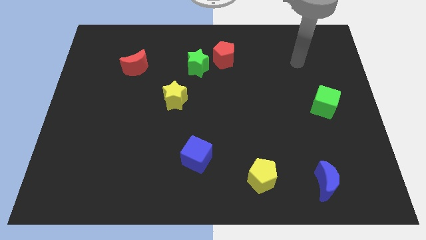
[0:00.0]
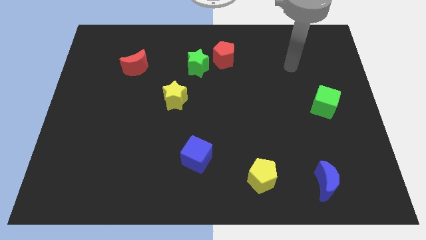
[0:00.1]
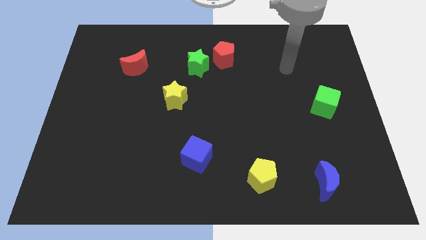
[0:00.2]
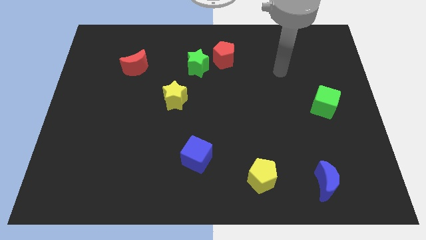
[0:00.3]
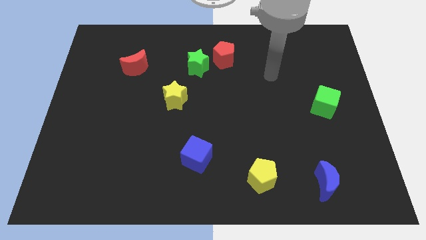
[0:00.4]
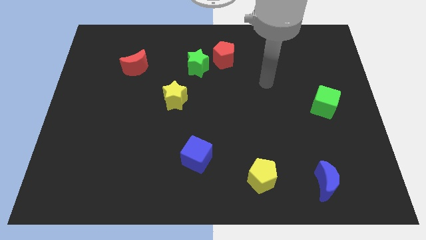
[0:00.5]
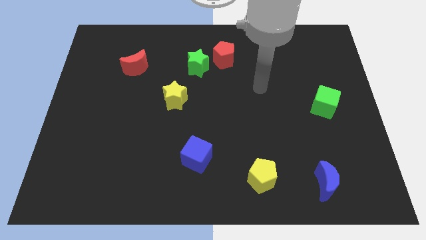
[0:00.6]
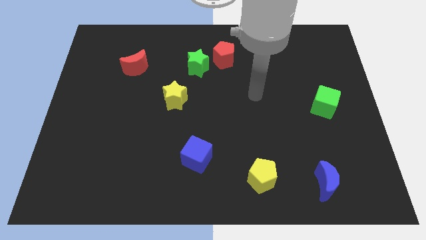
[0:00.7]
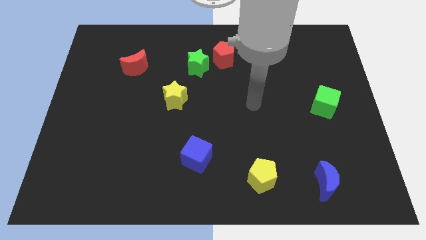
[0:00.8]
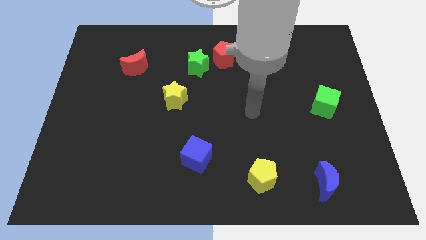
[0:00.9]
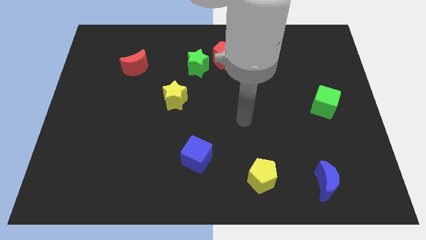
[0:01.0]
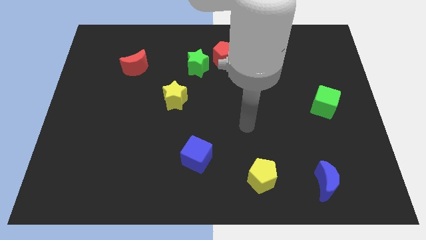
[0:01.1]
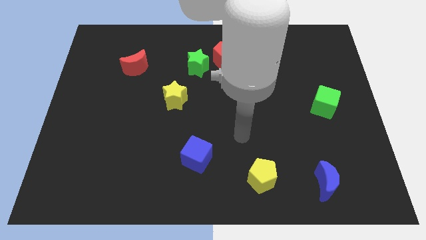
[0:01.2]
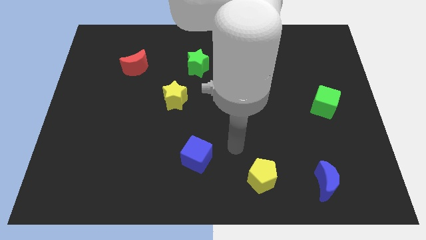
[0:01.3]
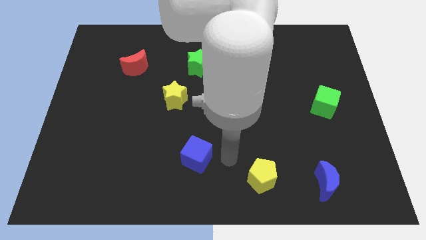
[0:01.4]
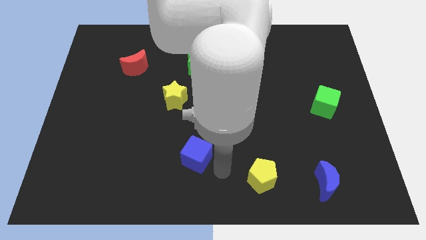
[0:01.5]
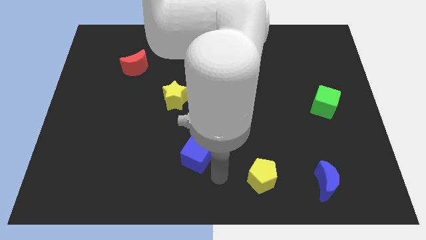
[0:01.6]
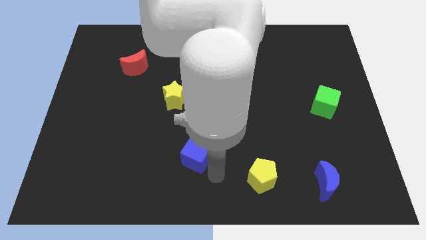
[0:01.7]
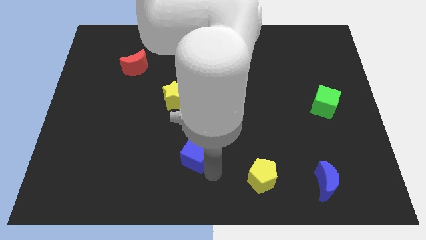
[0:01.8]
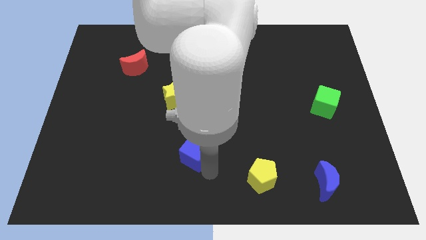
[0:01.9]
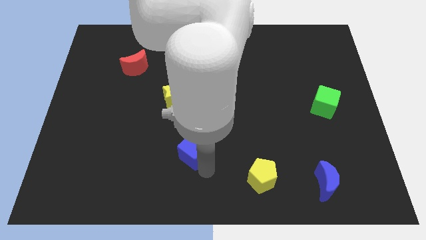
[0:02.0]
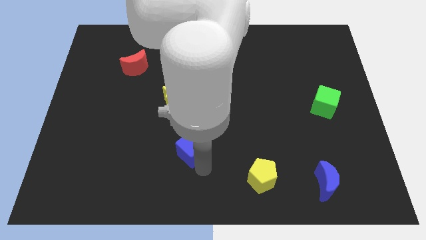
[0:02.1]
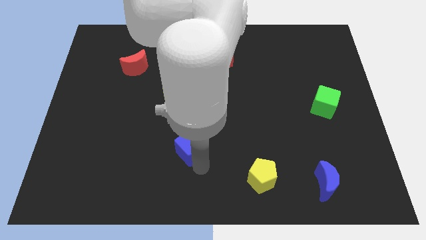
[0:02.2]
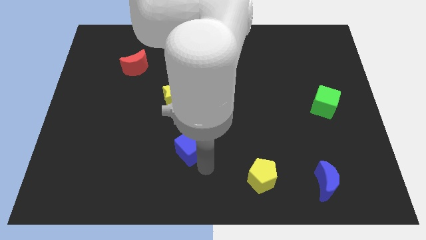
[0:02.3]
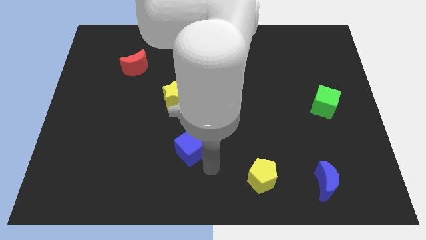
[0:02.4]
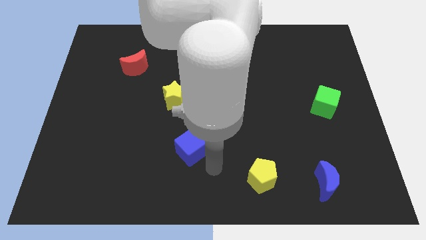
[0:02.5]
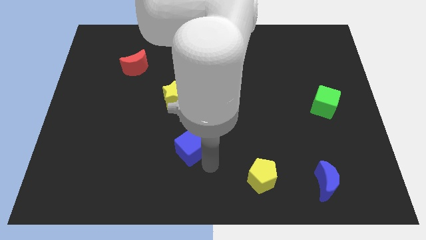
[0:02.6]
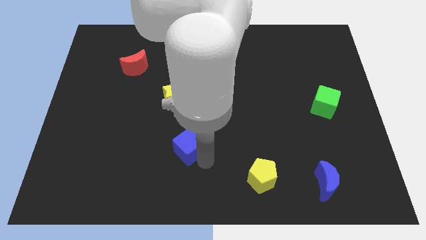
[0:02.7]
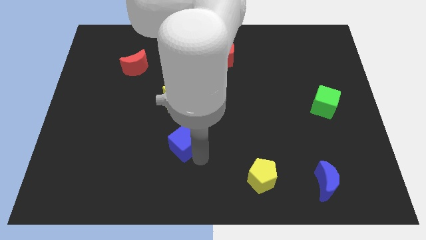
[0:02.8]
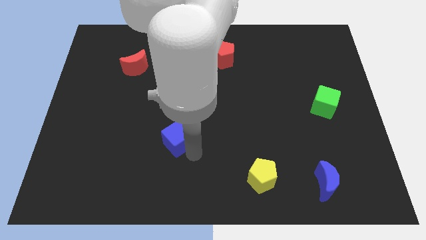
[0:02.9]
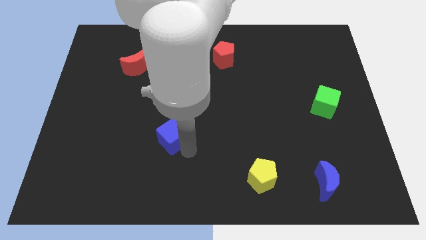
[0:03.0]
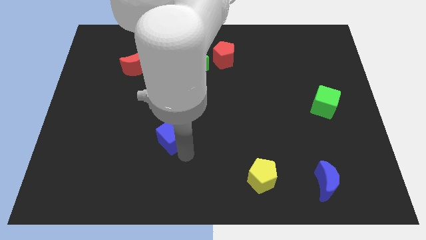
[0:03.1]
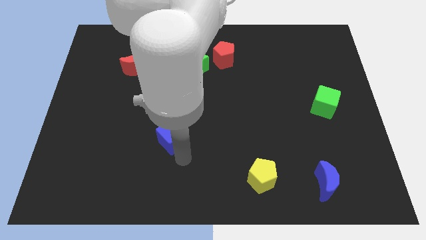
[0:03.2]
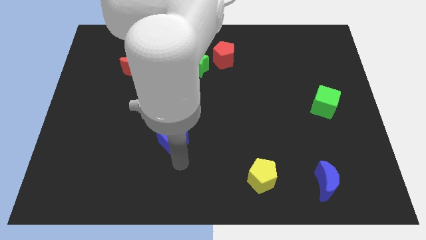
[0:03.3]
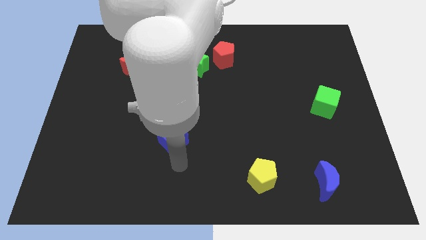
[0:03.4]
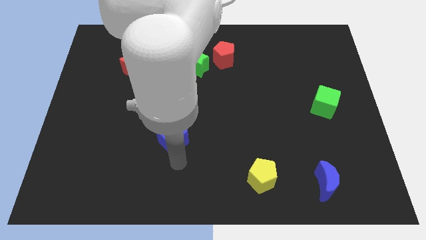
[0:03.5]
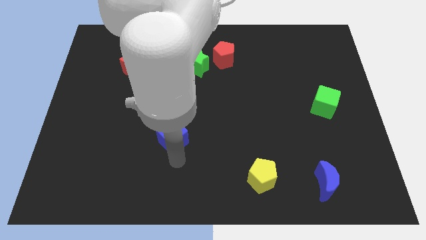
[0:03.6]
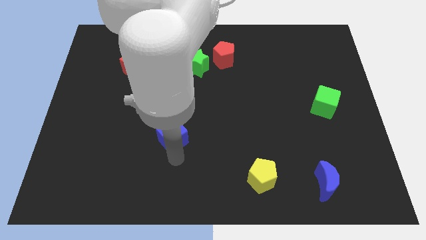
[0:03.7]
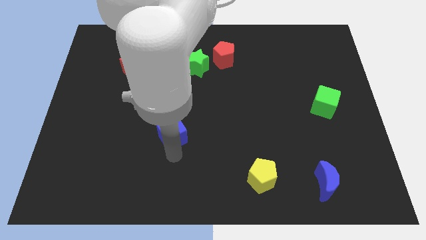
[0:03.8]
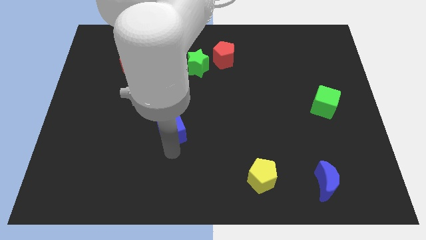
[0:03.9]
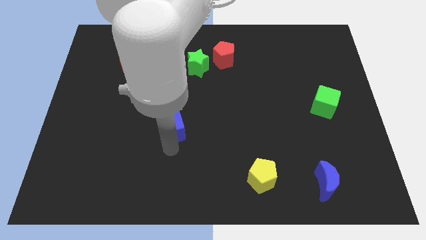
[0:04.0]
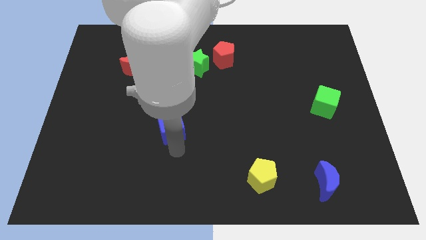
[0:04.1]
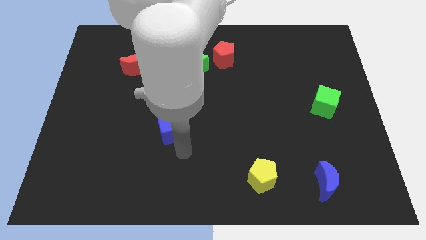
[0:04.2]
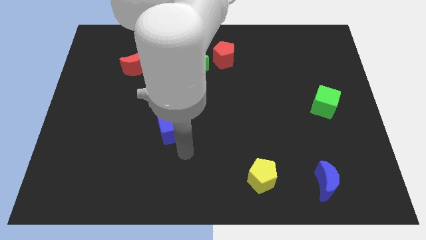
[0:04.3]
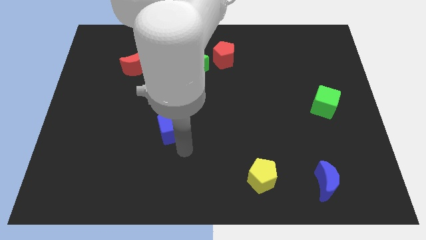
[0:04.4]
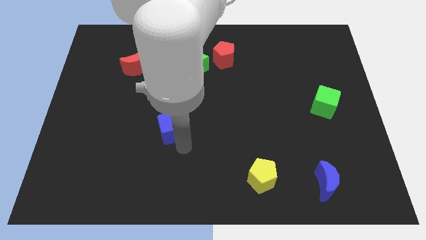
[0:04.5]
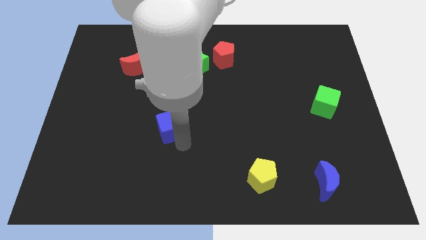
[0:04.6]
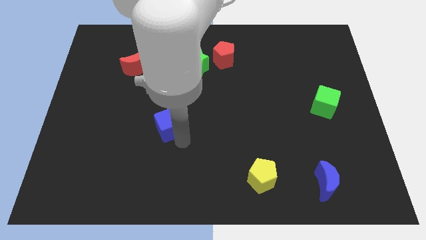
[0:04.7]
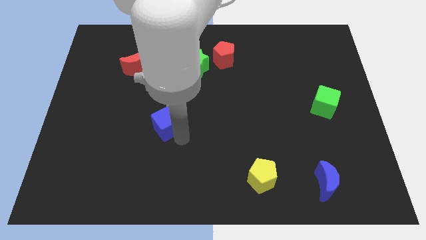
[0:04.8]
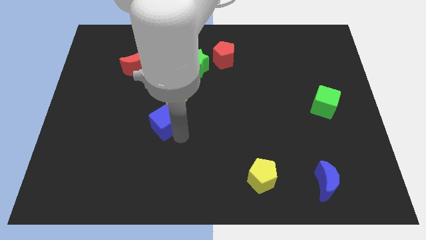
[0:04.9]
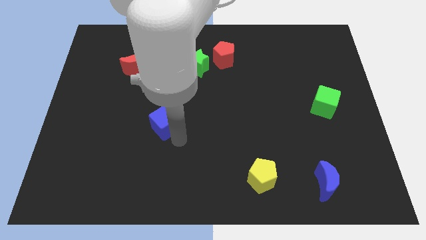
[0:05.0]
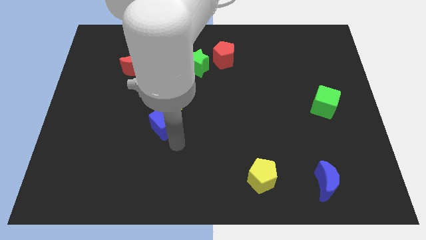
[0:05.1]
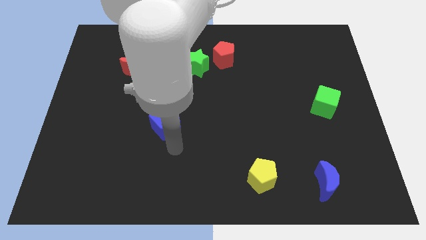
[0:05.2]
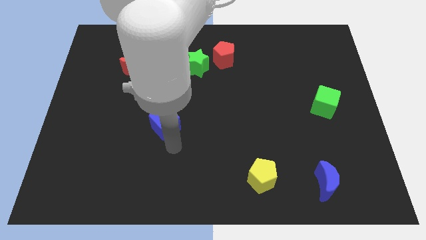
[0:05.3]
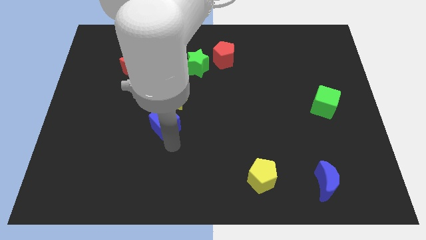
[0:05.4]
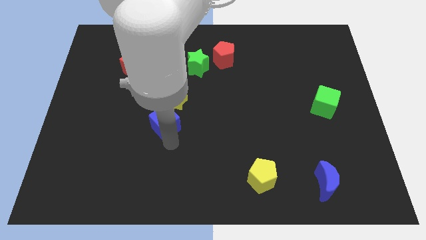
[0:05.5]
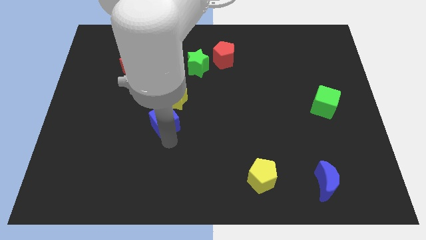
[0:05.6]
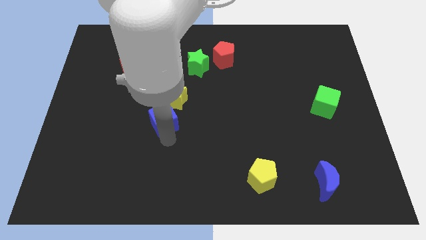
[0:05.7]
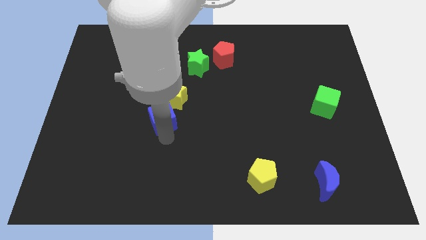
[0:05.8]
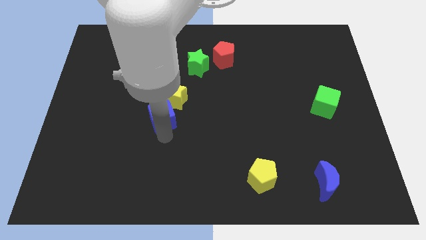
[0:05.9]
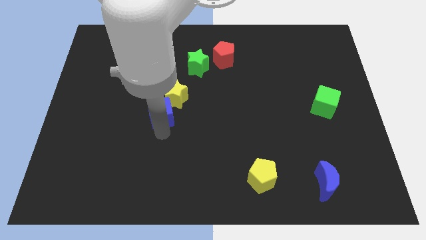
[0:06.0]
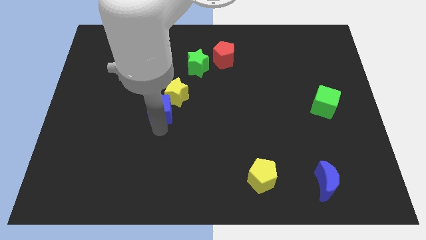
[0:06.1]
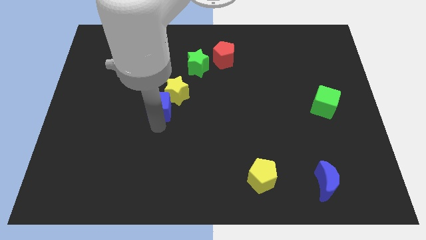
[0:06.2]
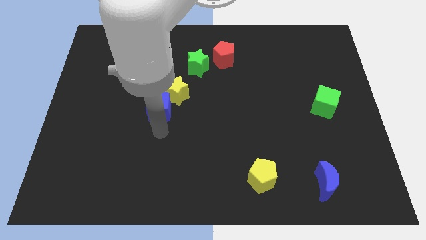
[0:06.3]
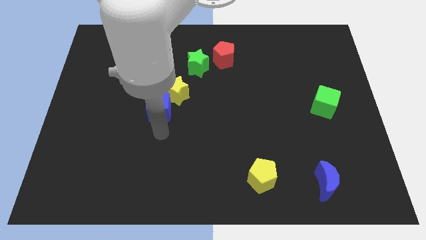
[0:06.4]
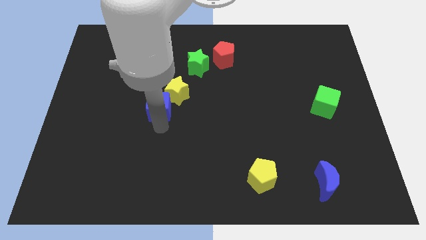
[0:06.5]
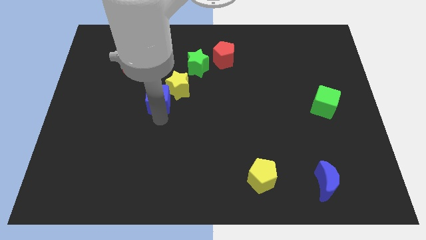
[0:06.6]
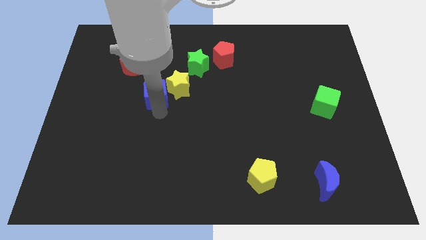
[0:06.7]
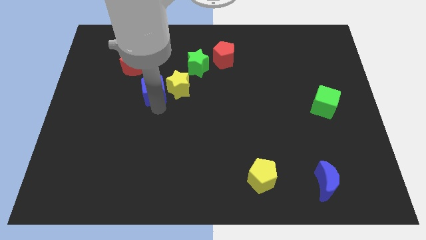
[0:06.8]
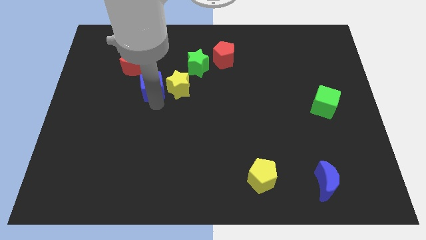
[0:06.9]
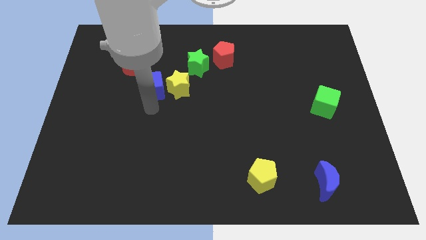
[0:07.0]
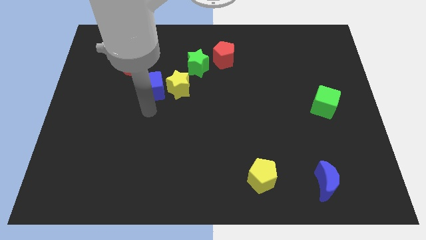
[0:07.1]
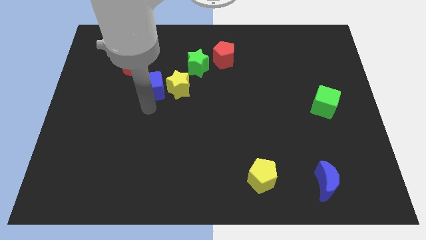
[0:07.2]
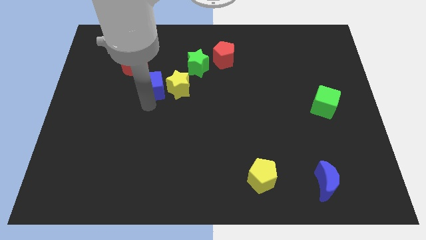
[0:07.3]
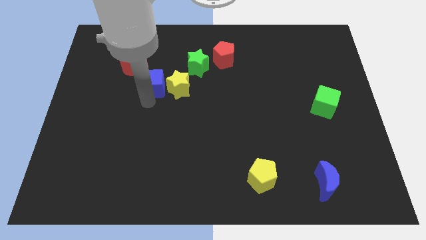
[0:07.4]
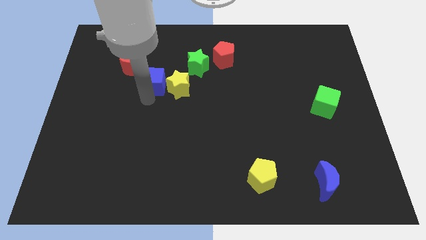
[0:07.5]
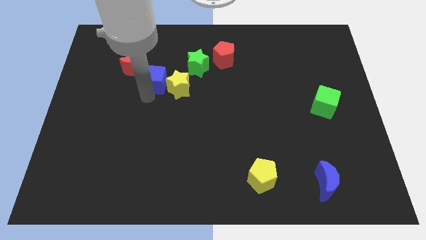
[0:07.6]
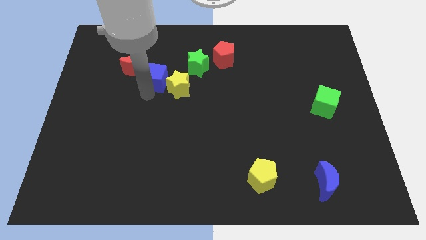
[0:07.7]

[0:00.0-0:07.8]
slide the blue cube to the left of the green star
